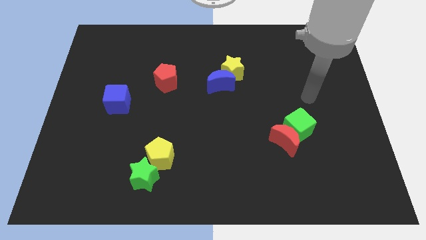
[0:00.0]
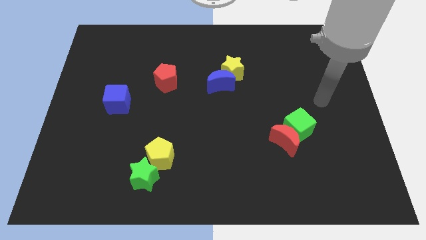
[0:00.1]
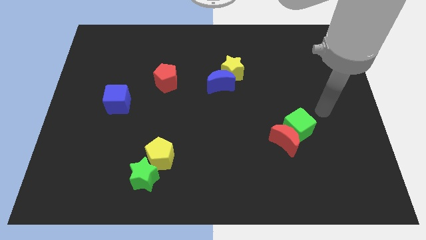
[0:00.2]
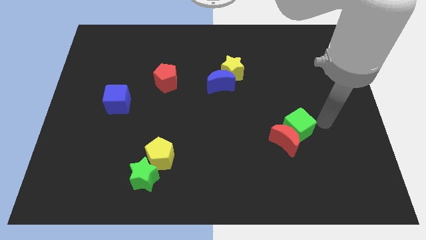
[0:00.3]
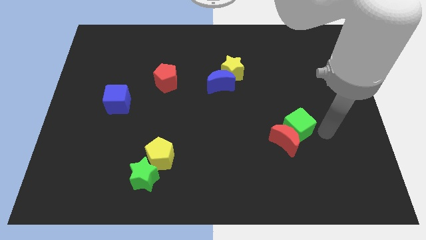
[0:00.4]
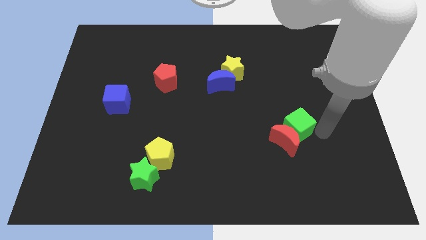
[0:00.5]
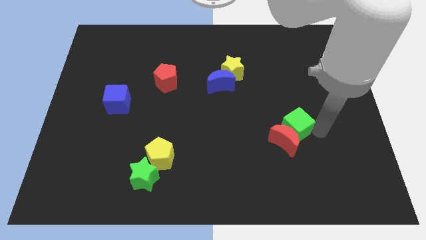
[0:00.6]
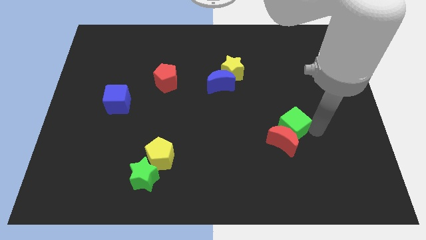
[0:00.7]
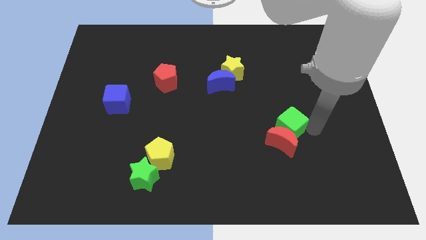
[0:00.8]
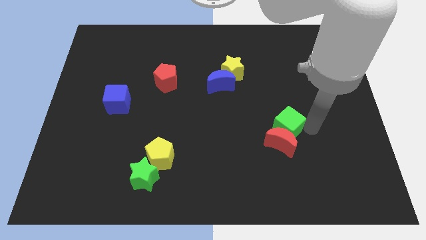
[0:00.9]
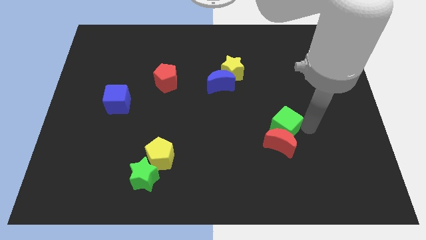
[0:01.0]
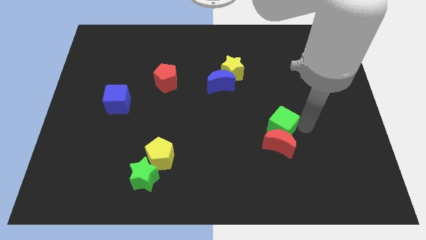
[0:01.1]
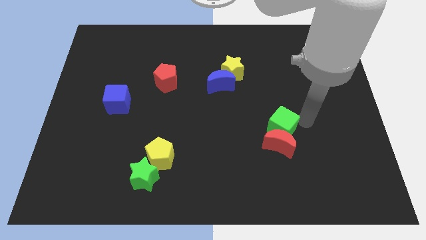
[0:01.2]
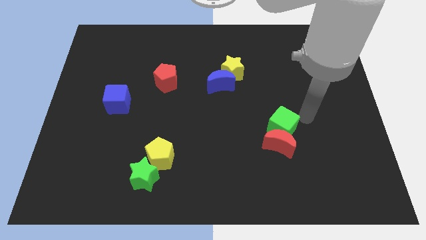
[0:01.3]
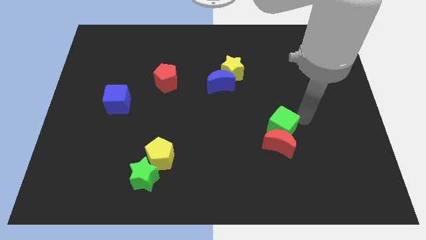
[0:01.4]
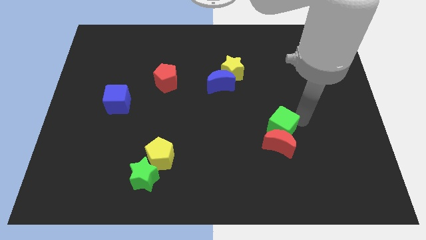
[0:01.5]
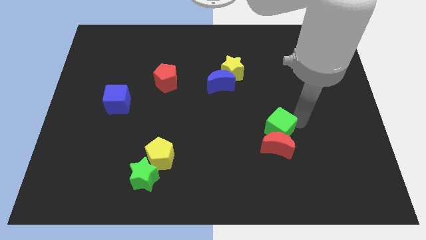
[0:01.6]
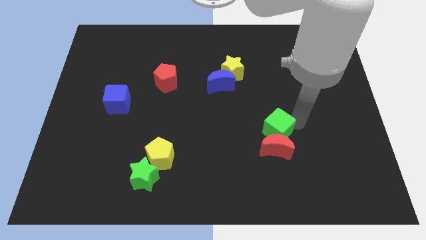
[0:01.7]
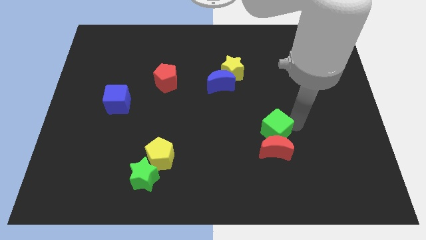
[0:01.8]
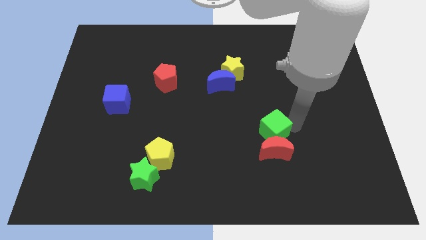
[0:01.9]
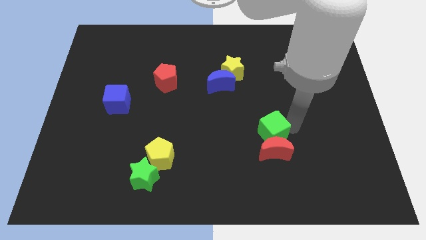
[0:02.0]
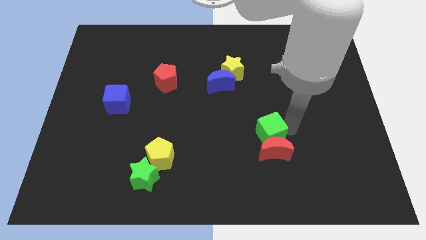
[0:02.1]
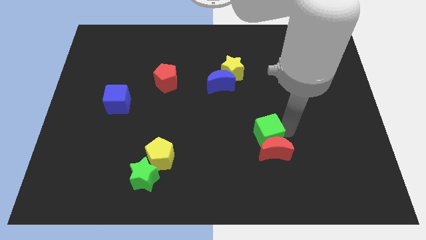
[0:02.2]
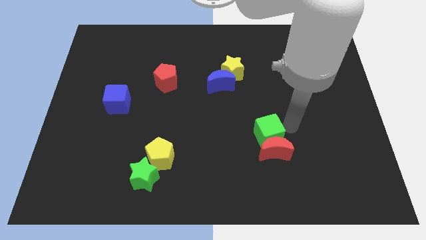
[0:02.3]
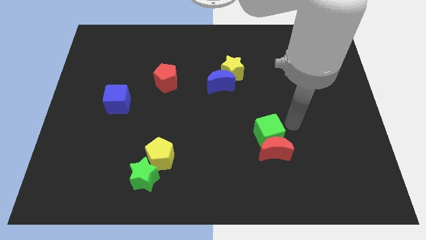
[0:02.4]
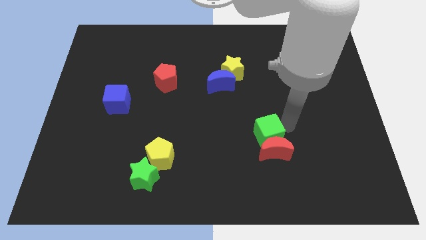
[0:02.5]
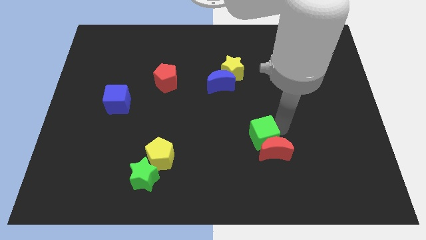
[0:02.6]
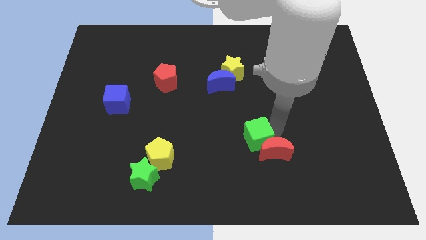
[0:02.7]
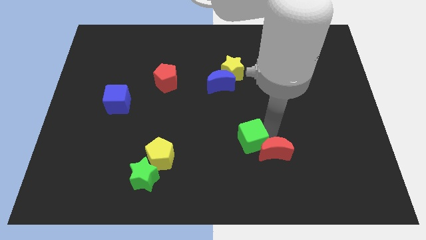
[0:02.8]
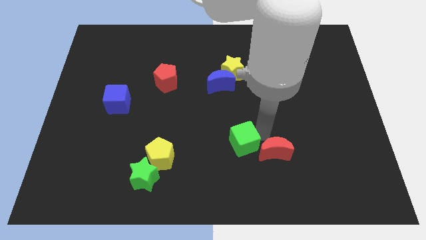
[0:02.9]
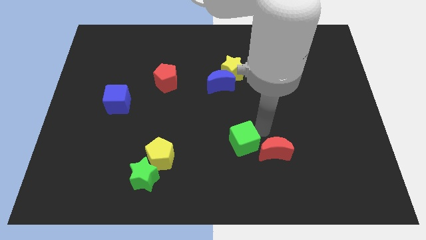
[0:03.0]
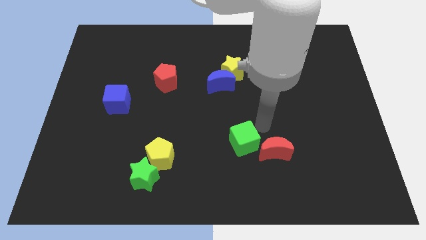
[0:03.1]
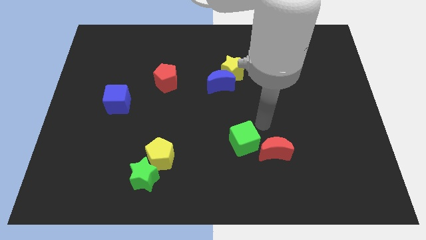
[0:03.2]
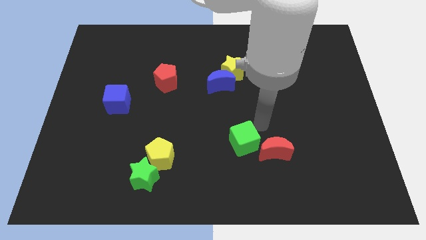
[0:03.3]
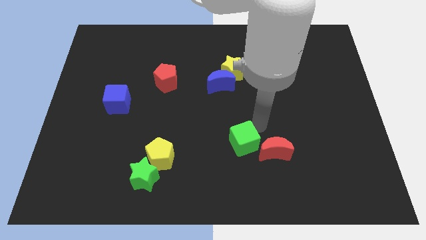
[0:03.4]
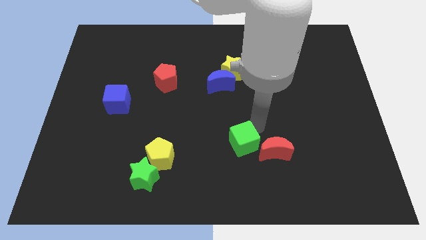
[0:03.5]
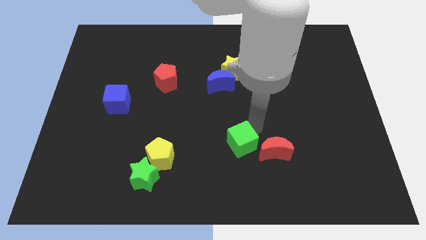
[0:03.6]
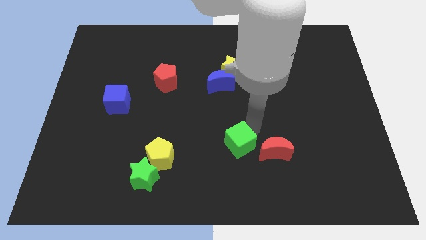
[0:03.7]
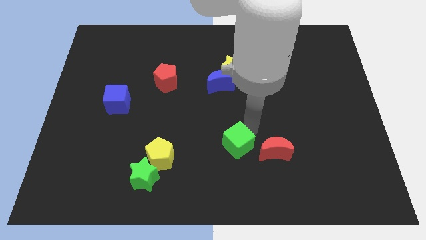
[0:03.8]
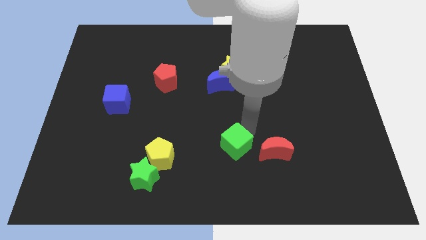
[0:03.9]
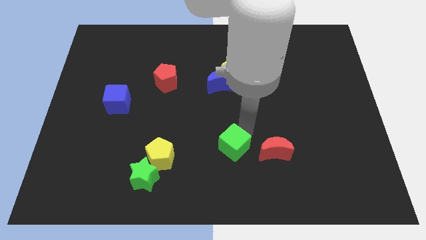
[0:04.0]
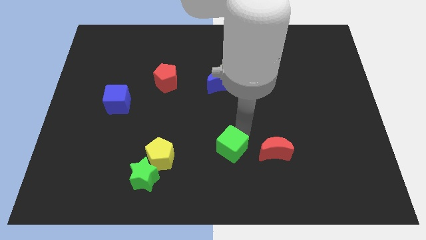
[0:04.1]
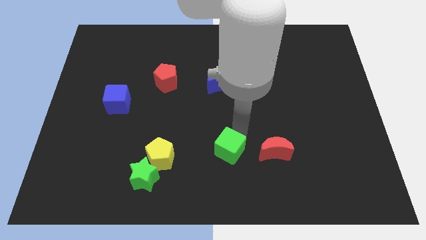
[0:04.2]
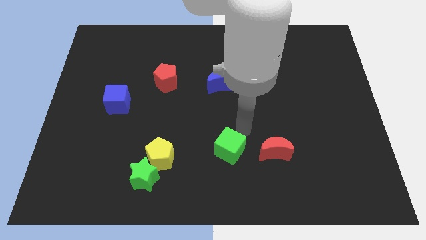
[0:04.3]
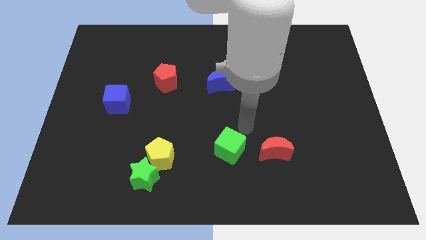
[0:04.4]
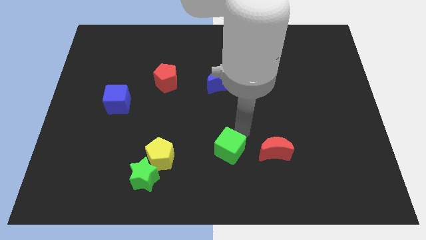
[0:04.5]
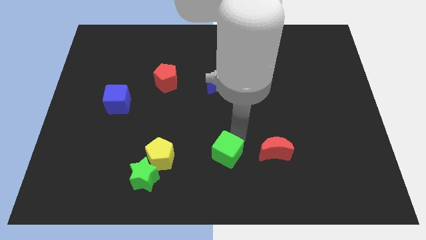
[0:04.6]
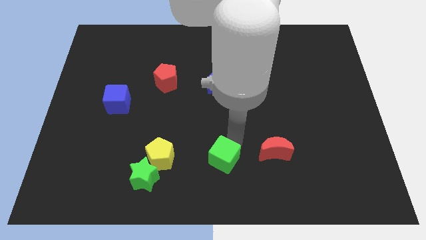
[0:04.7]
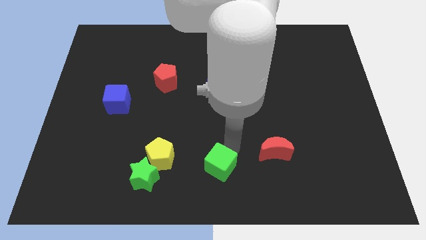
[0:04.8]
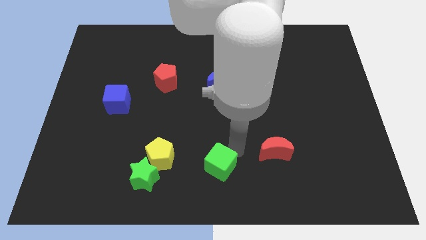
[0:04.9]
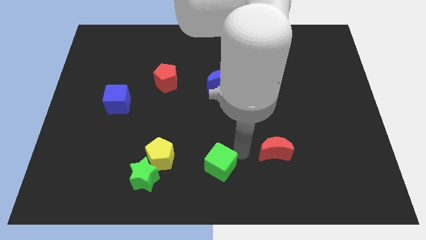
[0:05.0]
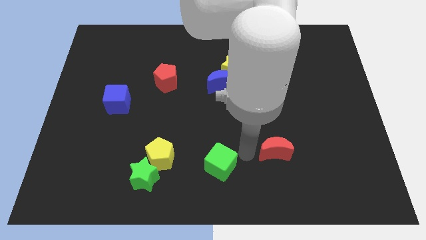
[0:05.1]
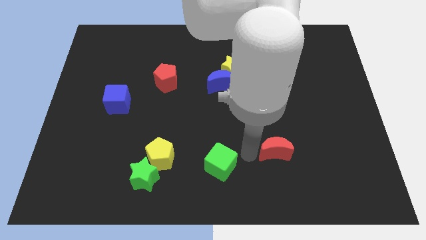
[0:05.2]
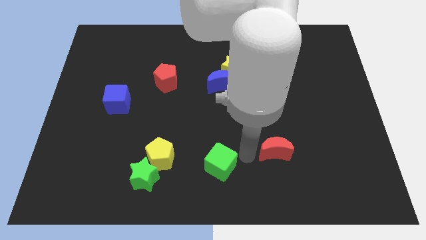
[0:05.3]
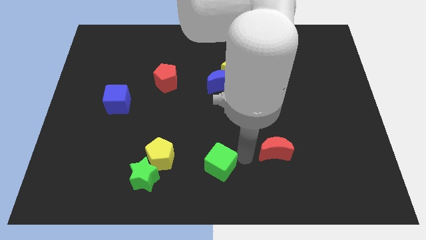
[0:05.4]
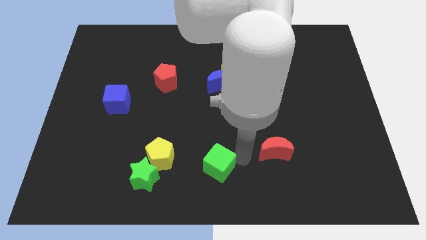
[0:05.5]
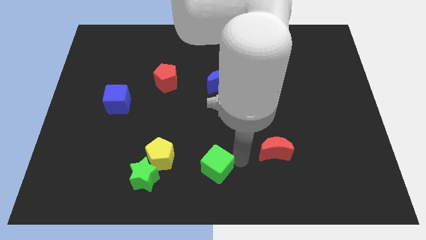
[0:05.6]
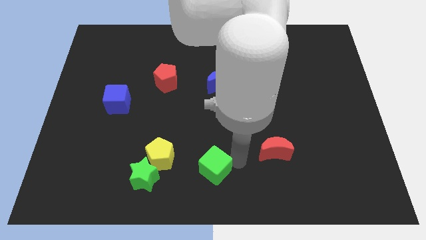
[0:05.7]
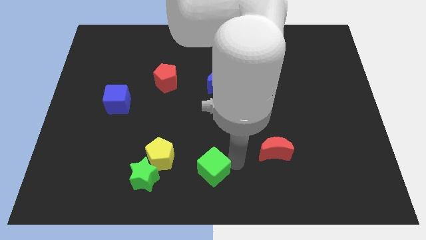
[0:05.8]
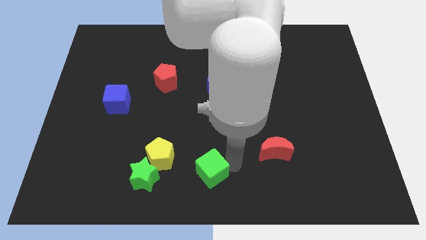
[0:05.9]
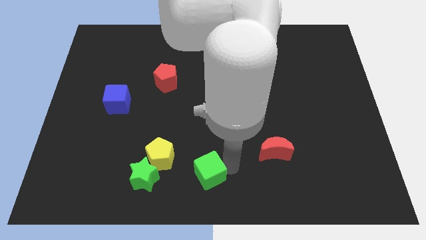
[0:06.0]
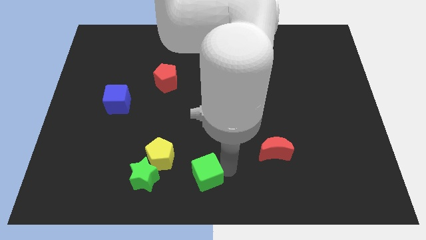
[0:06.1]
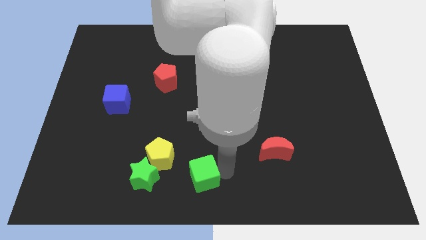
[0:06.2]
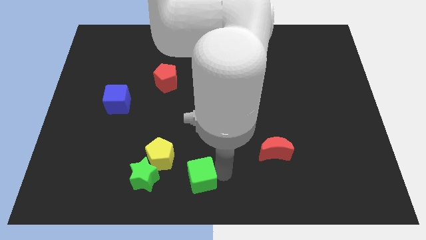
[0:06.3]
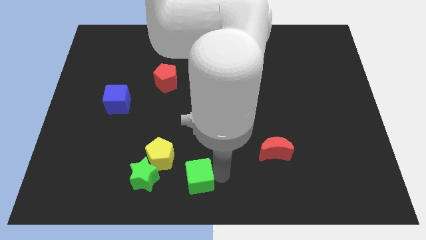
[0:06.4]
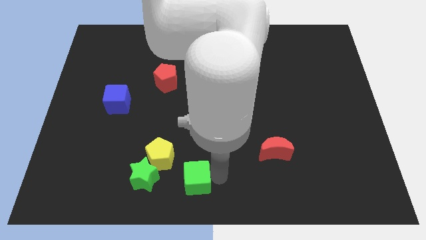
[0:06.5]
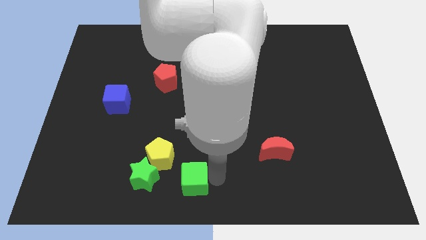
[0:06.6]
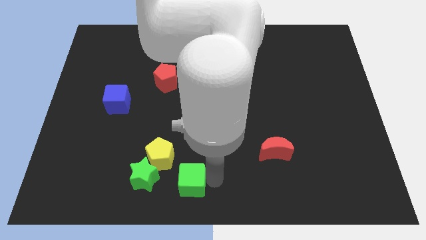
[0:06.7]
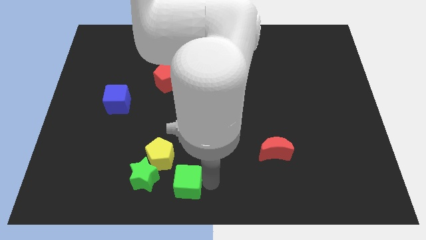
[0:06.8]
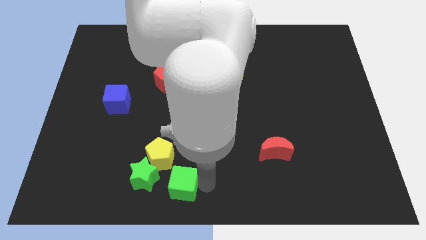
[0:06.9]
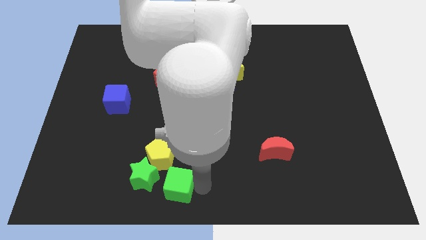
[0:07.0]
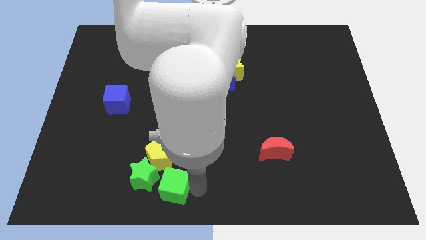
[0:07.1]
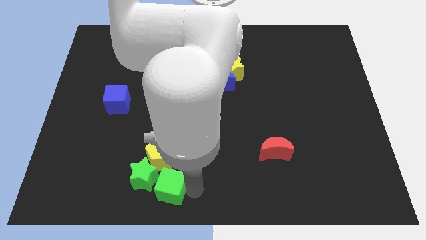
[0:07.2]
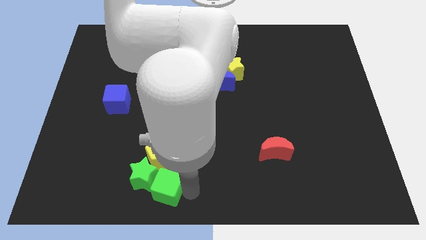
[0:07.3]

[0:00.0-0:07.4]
push the green cube towards the green star
